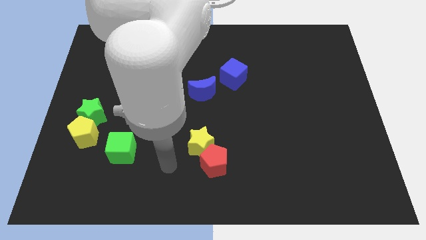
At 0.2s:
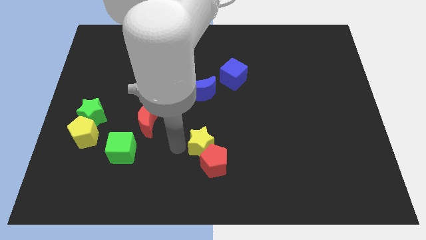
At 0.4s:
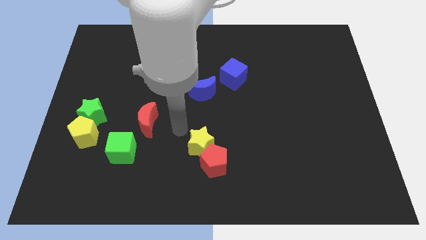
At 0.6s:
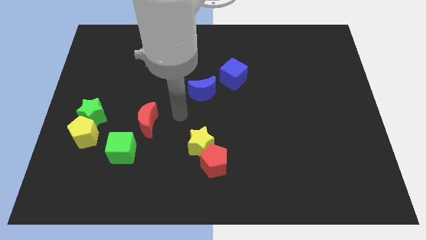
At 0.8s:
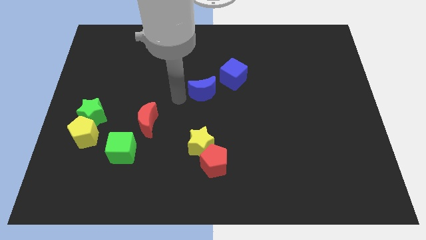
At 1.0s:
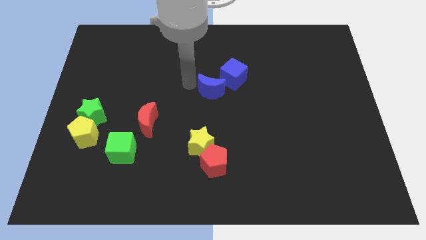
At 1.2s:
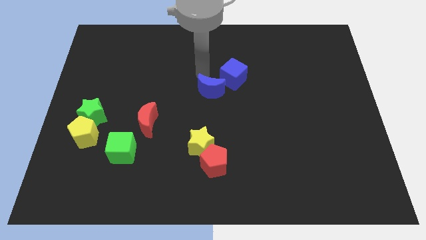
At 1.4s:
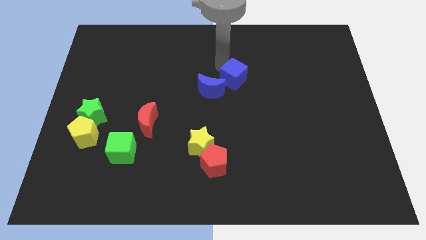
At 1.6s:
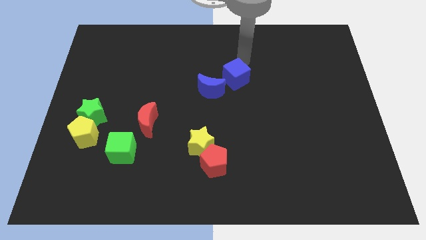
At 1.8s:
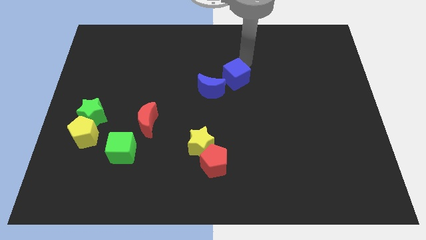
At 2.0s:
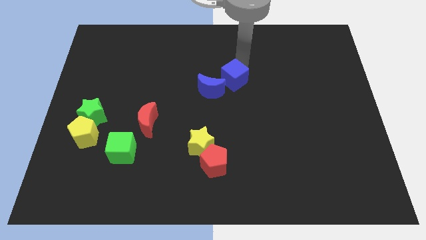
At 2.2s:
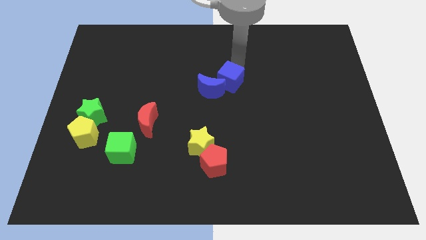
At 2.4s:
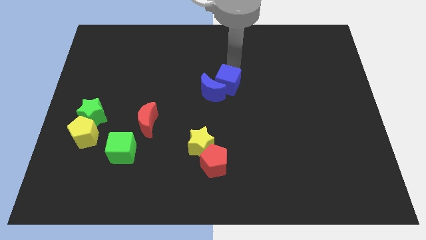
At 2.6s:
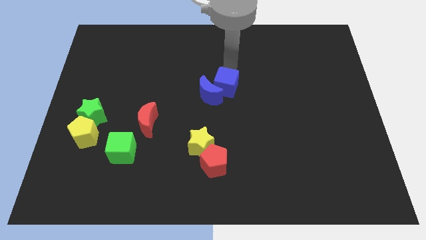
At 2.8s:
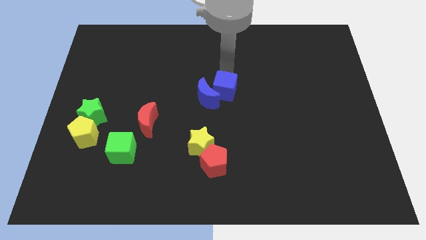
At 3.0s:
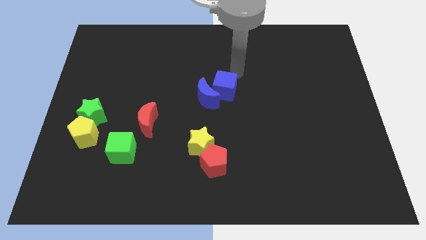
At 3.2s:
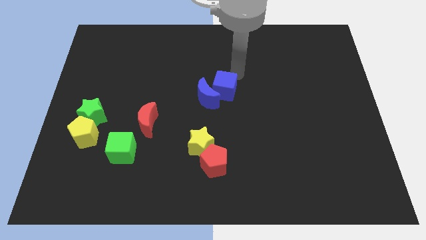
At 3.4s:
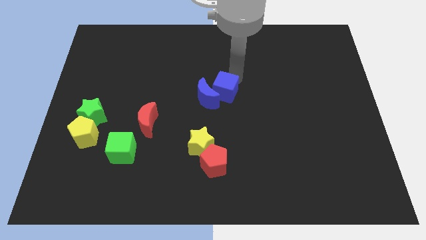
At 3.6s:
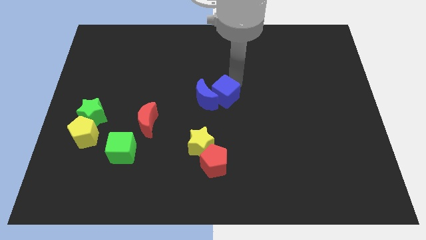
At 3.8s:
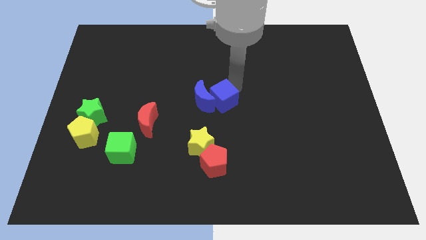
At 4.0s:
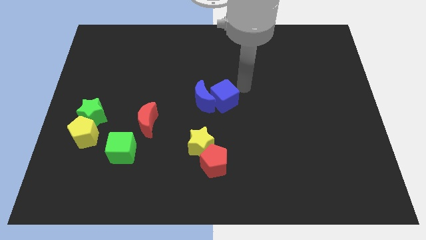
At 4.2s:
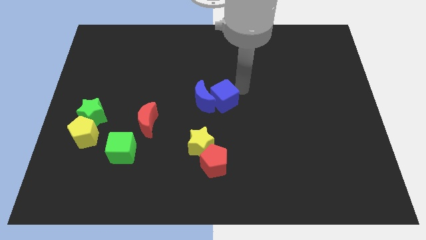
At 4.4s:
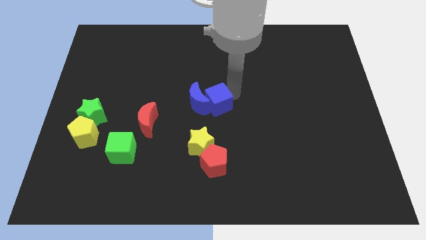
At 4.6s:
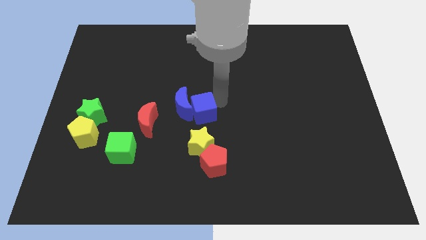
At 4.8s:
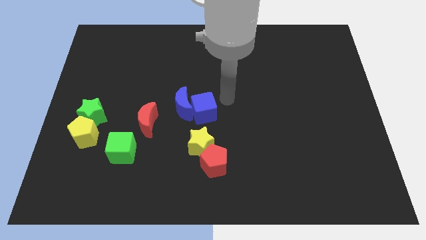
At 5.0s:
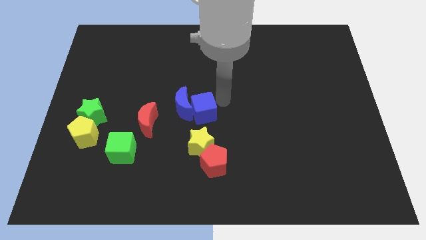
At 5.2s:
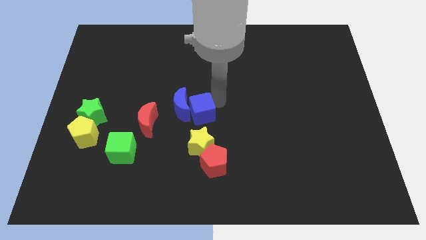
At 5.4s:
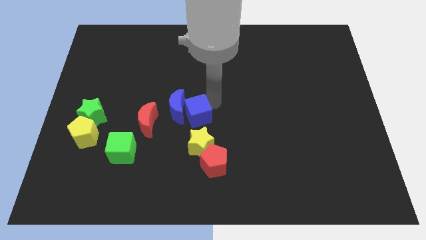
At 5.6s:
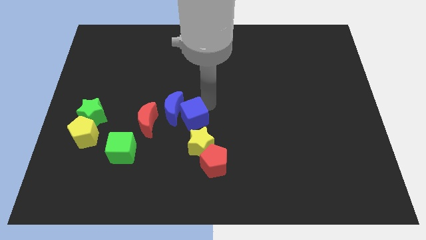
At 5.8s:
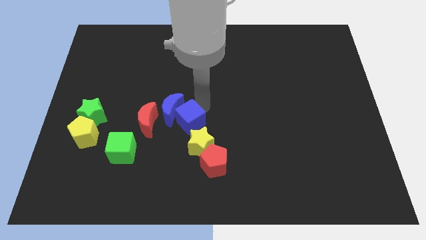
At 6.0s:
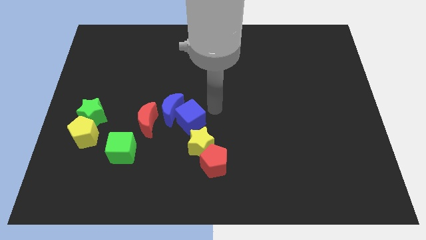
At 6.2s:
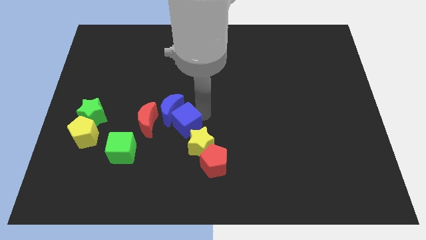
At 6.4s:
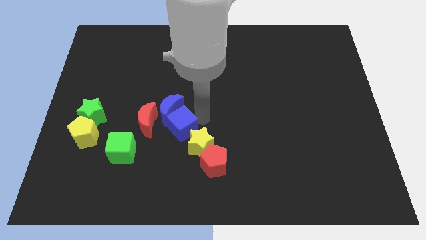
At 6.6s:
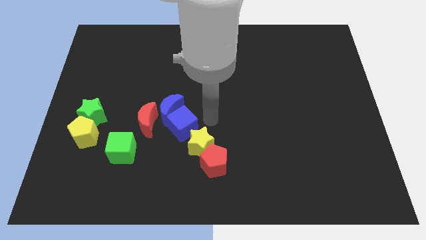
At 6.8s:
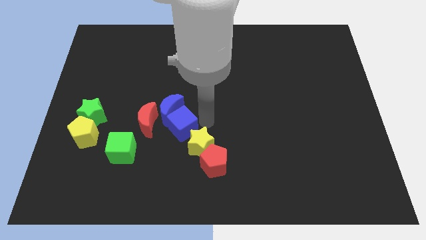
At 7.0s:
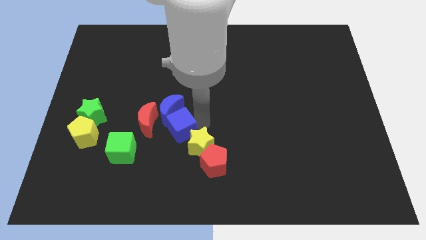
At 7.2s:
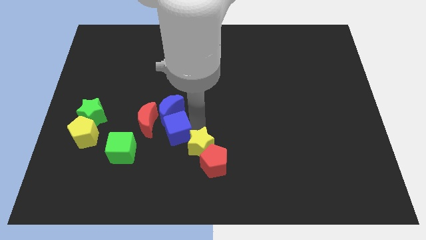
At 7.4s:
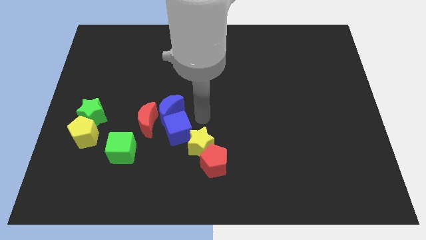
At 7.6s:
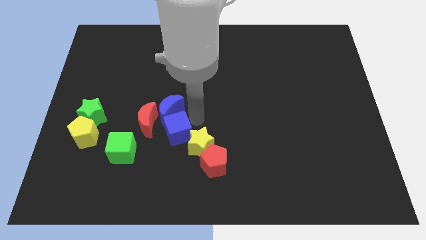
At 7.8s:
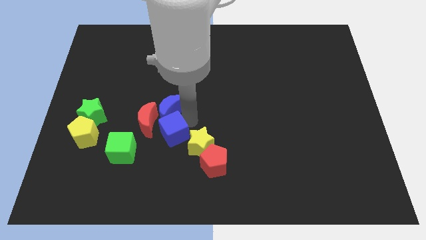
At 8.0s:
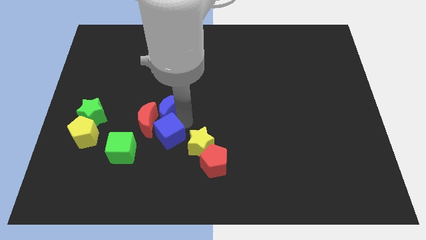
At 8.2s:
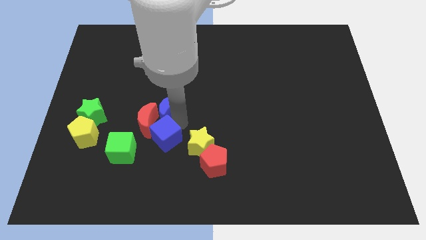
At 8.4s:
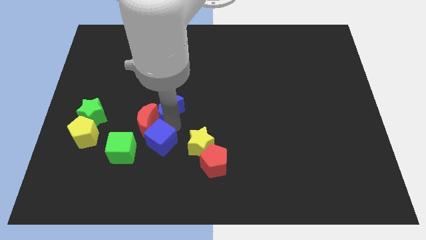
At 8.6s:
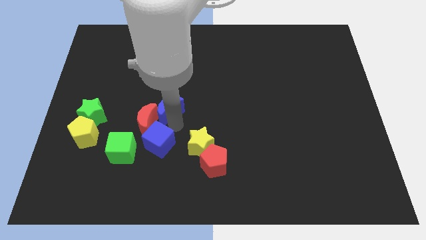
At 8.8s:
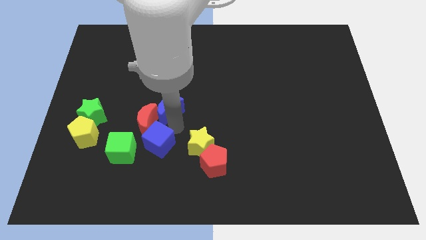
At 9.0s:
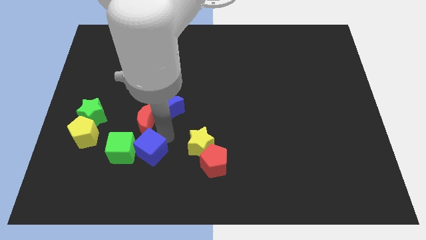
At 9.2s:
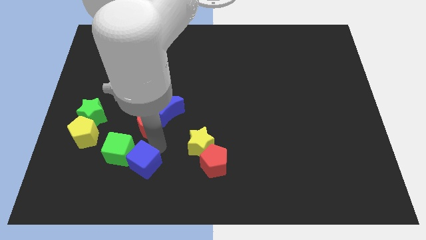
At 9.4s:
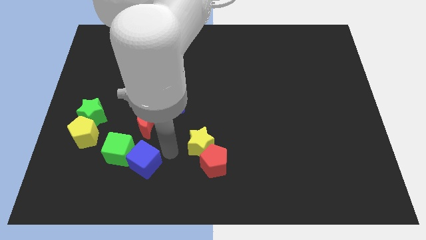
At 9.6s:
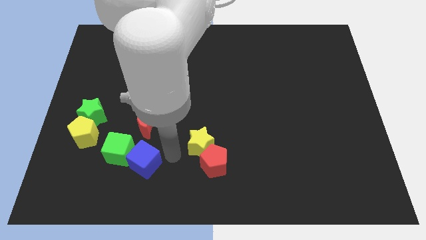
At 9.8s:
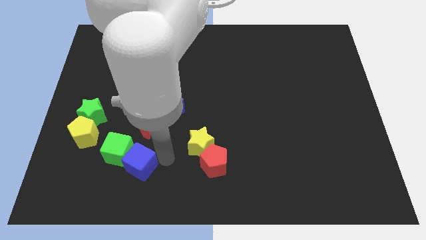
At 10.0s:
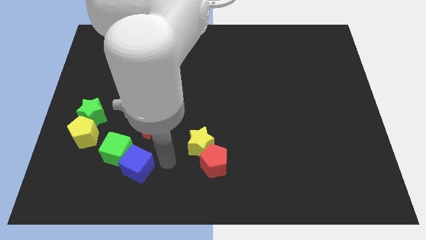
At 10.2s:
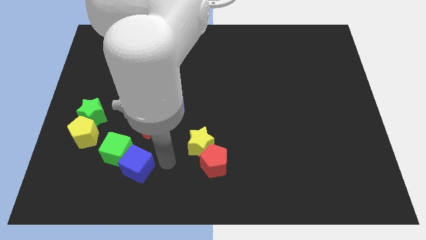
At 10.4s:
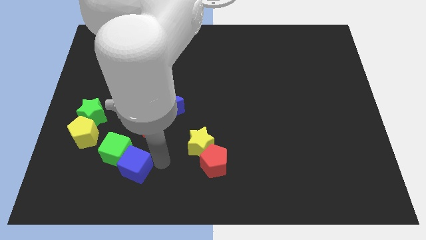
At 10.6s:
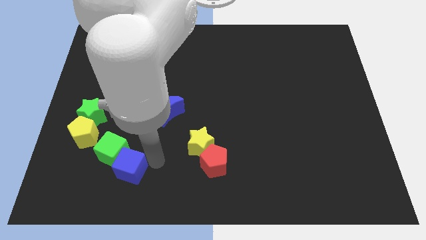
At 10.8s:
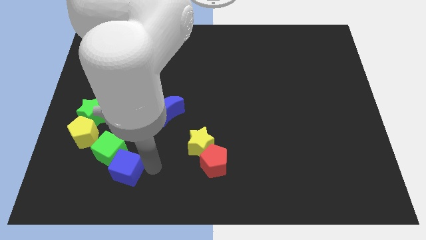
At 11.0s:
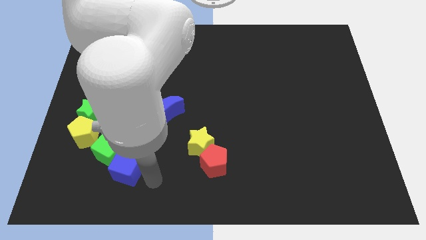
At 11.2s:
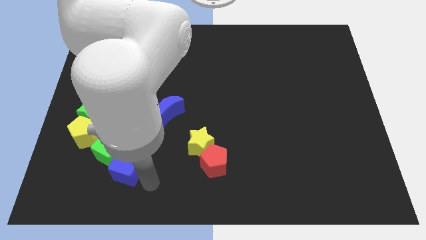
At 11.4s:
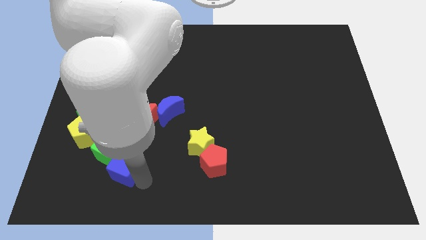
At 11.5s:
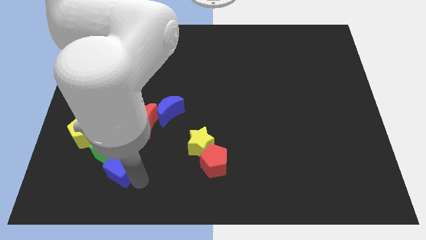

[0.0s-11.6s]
put the blue cube to the bottom right side of the yellow pentagon

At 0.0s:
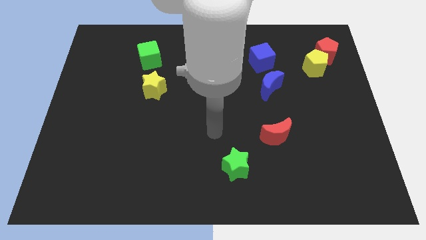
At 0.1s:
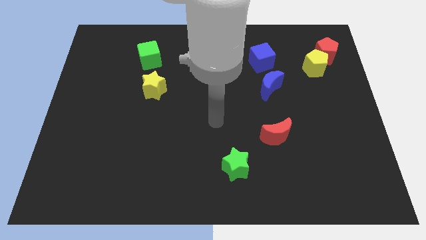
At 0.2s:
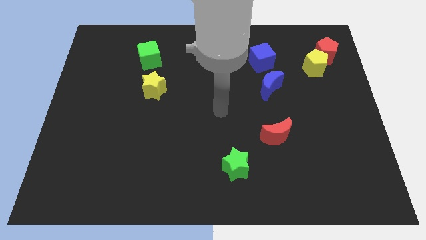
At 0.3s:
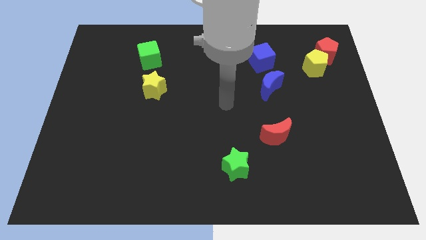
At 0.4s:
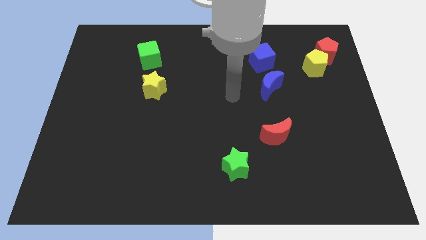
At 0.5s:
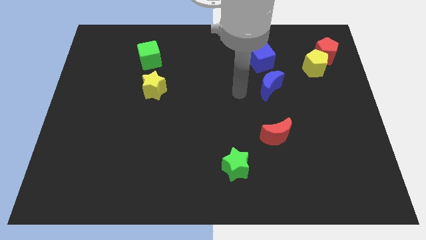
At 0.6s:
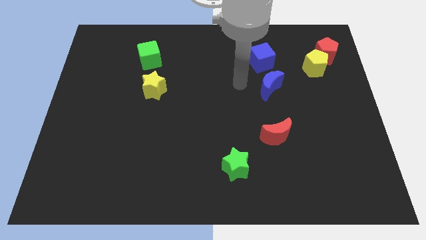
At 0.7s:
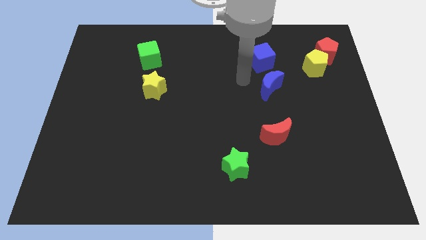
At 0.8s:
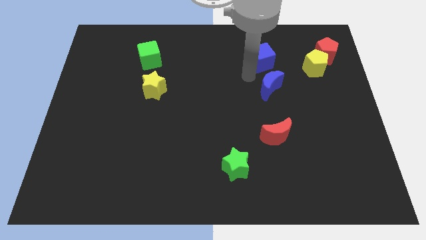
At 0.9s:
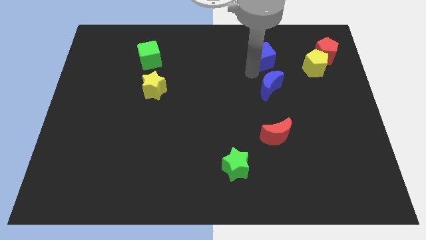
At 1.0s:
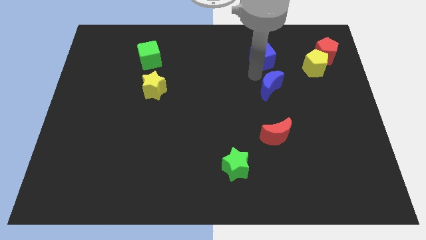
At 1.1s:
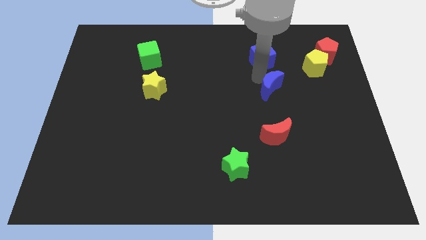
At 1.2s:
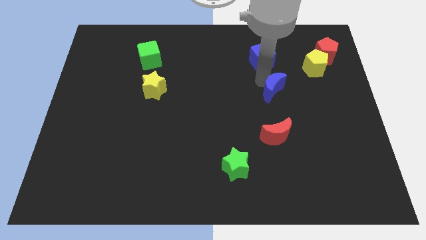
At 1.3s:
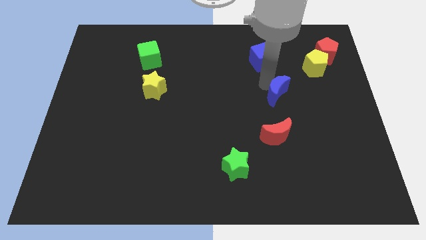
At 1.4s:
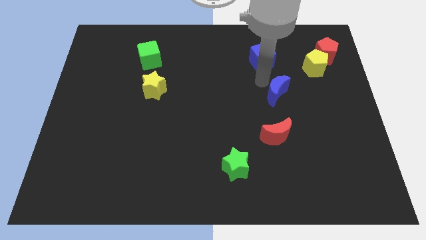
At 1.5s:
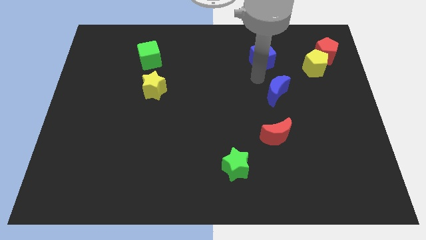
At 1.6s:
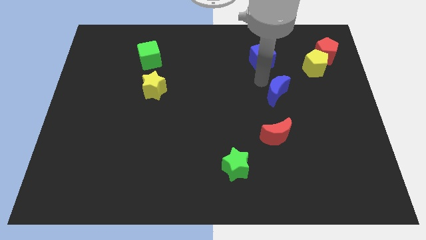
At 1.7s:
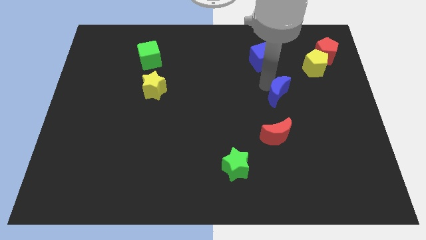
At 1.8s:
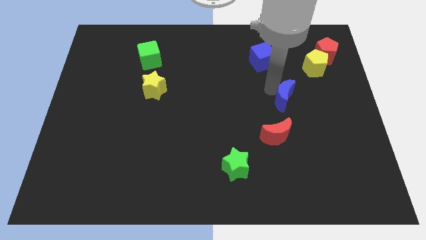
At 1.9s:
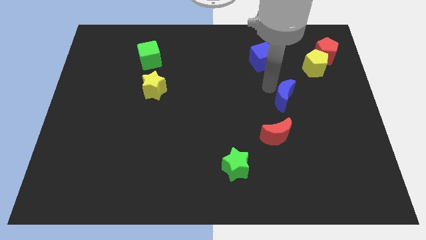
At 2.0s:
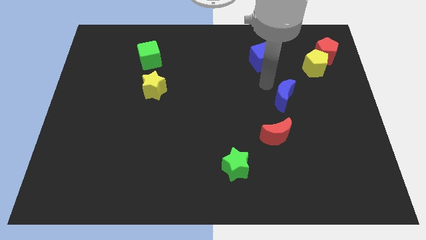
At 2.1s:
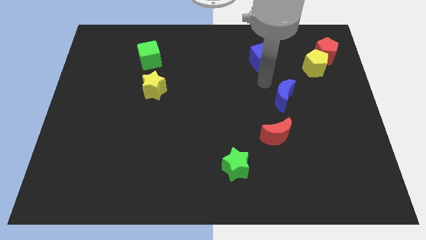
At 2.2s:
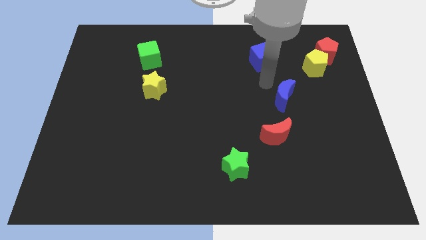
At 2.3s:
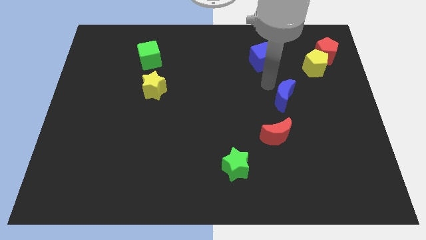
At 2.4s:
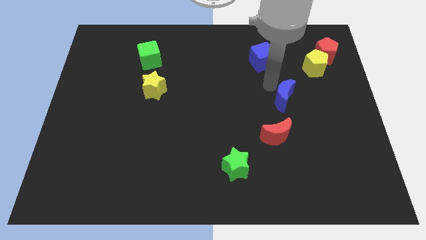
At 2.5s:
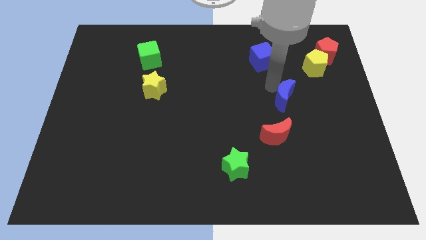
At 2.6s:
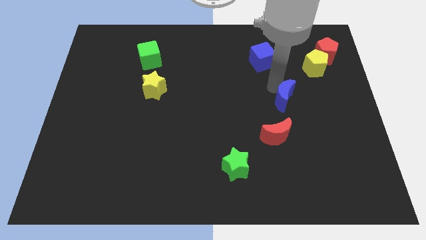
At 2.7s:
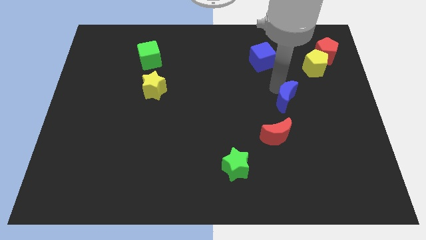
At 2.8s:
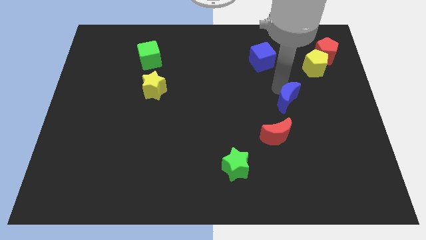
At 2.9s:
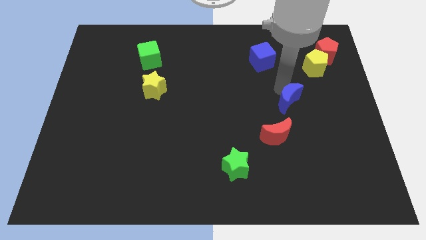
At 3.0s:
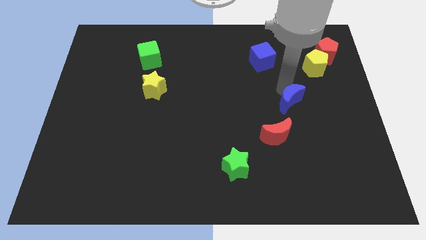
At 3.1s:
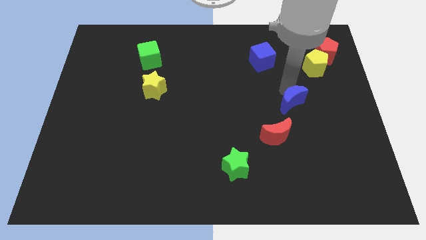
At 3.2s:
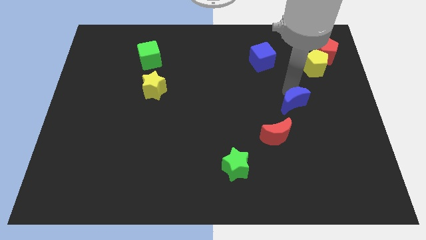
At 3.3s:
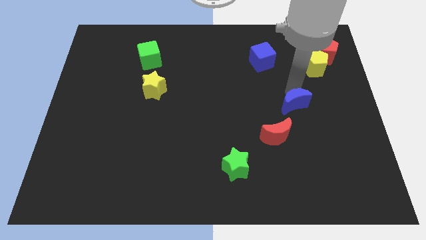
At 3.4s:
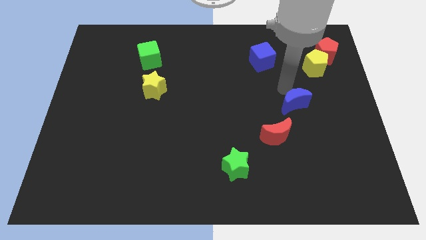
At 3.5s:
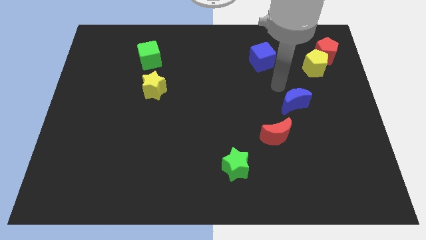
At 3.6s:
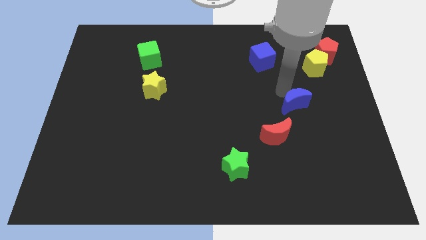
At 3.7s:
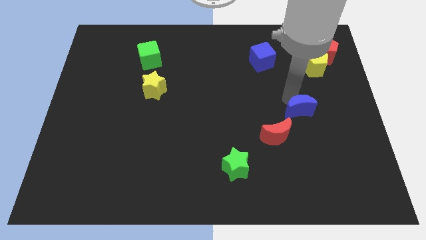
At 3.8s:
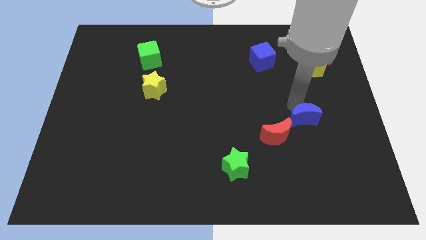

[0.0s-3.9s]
push the blue moon to the right side of the red moon
